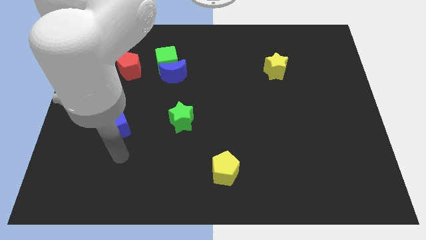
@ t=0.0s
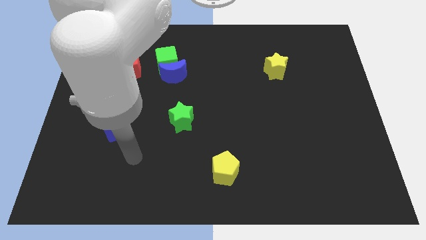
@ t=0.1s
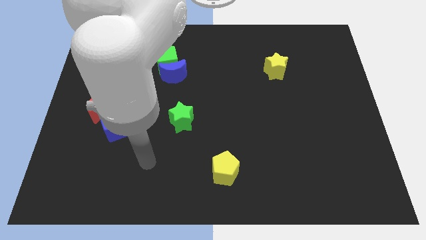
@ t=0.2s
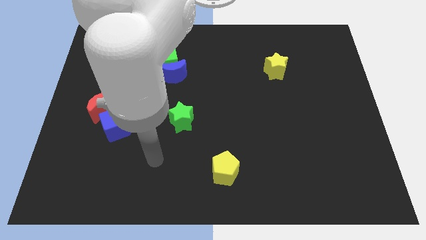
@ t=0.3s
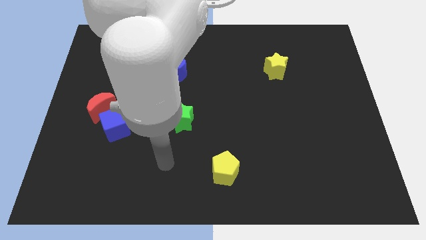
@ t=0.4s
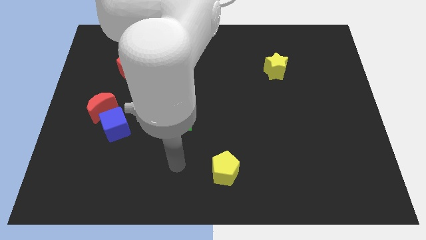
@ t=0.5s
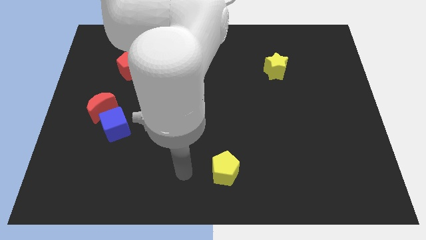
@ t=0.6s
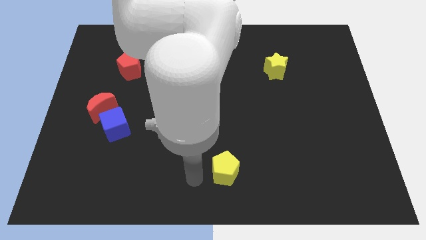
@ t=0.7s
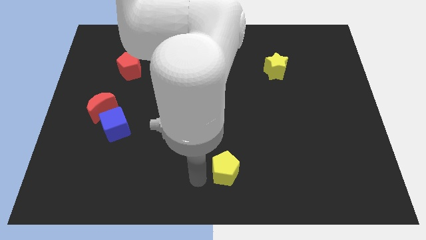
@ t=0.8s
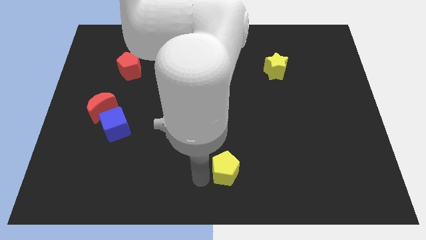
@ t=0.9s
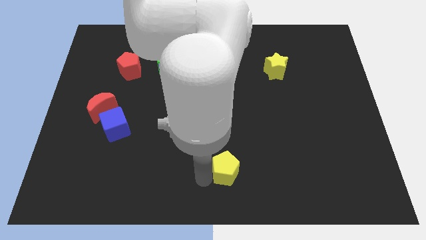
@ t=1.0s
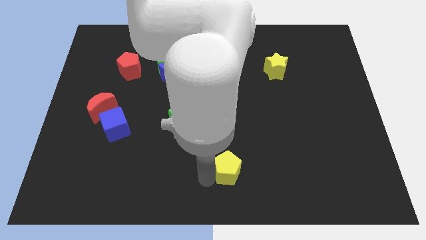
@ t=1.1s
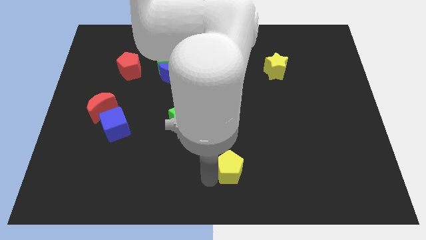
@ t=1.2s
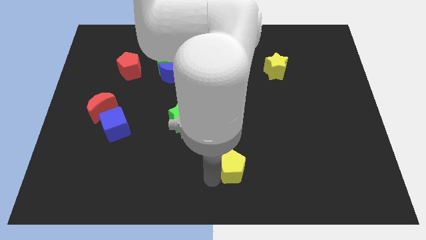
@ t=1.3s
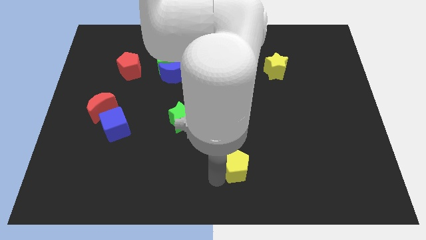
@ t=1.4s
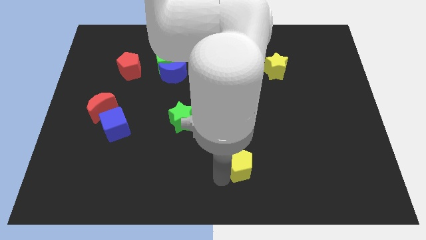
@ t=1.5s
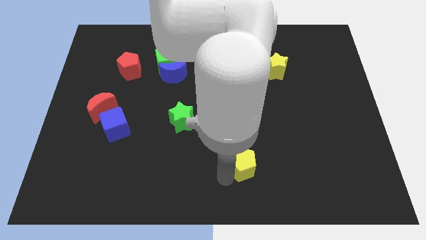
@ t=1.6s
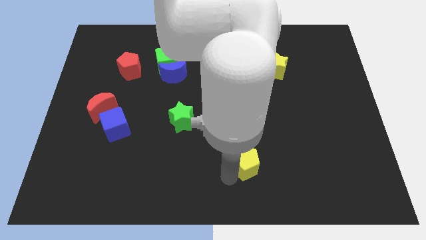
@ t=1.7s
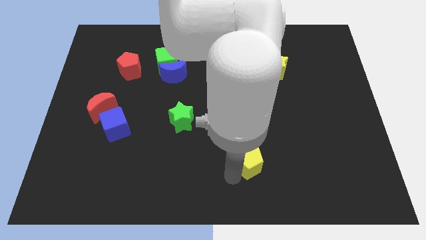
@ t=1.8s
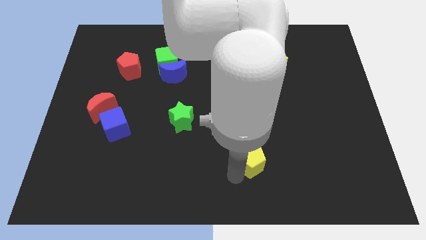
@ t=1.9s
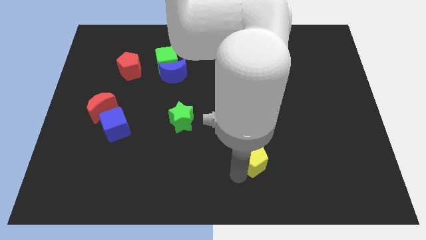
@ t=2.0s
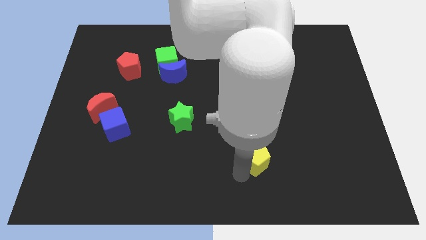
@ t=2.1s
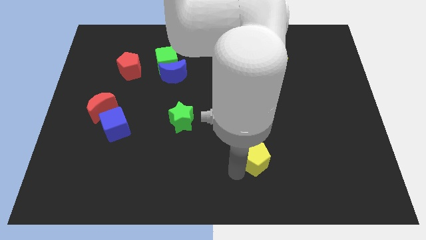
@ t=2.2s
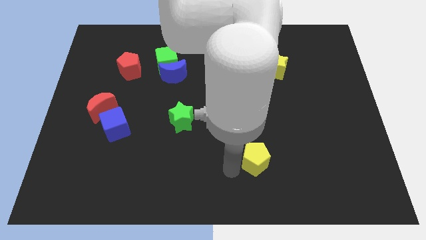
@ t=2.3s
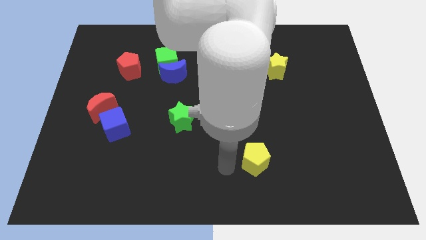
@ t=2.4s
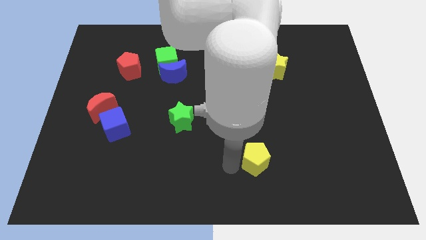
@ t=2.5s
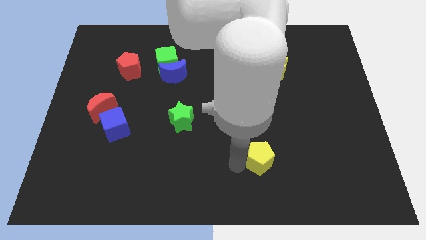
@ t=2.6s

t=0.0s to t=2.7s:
move the yellow pentagon right a little bit

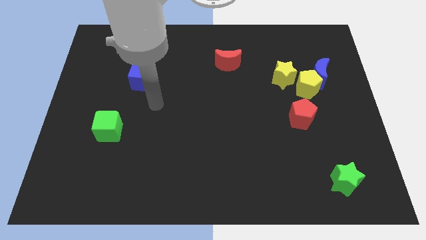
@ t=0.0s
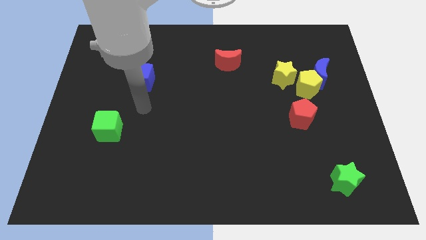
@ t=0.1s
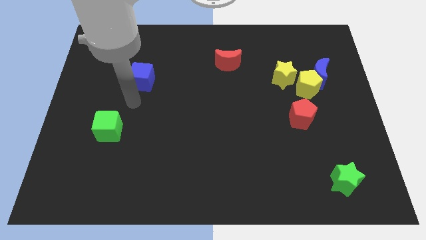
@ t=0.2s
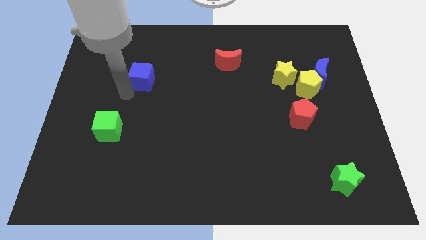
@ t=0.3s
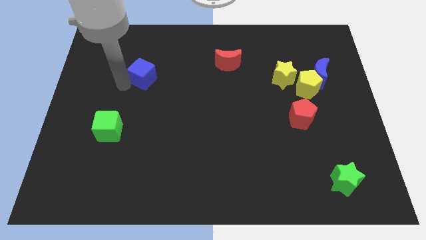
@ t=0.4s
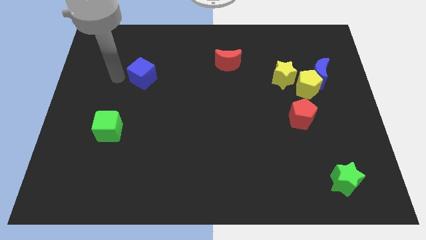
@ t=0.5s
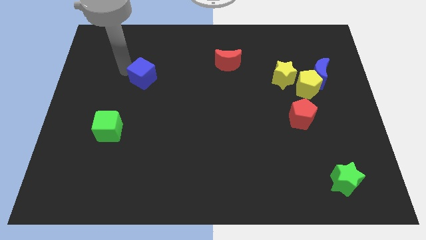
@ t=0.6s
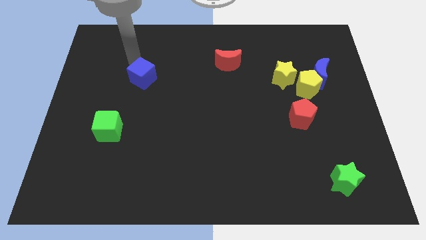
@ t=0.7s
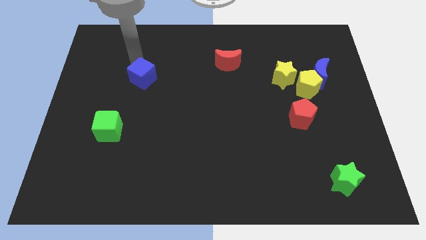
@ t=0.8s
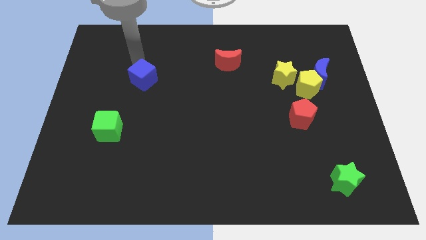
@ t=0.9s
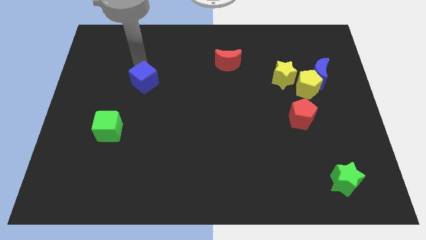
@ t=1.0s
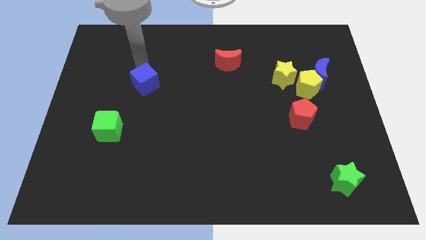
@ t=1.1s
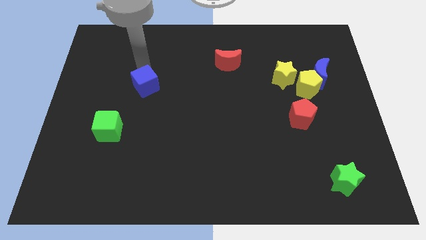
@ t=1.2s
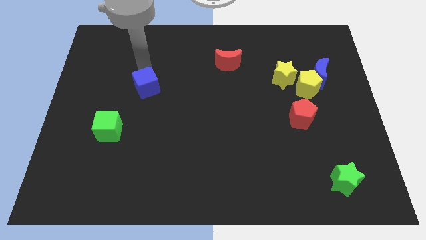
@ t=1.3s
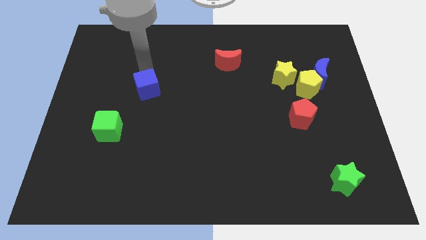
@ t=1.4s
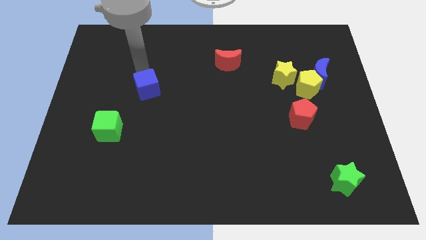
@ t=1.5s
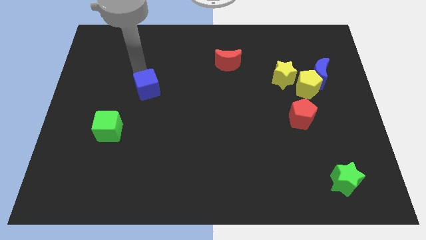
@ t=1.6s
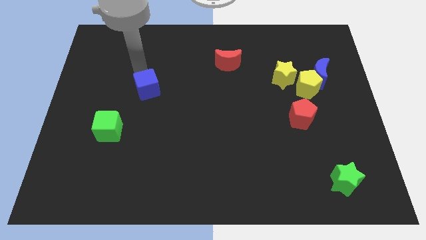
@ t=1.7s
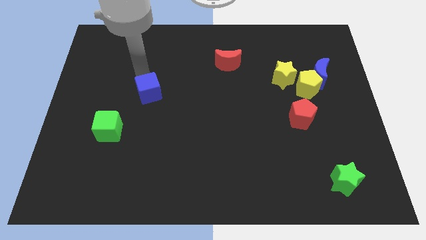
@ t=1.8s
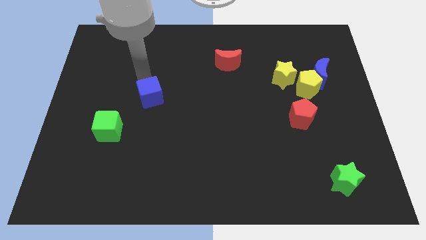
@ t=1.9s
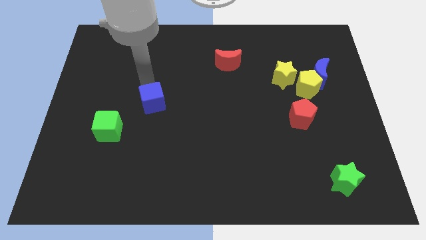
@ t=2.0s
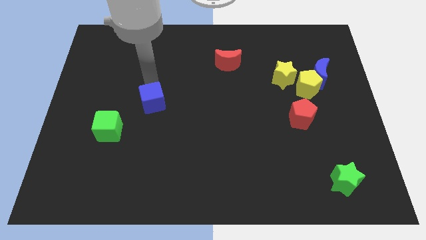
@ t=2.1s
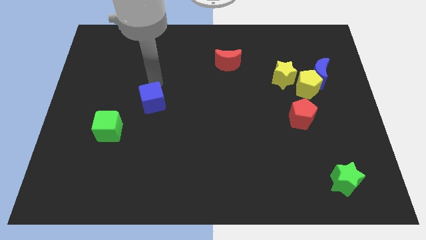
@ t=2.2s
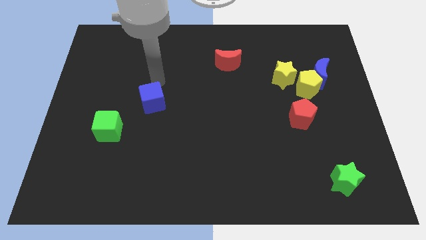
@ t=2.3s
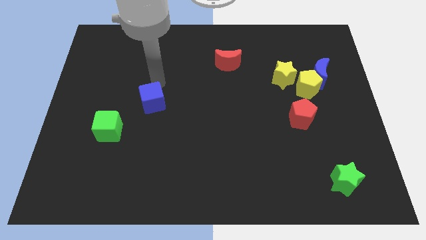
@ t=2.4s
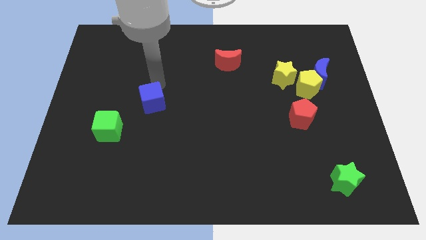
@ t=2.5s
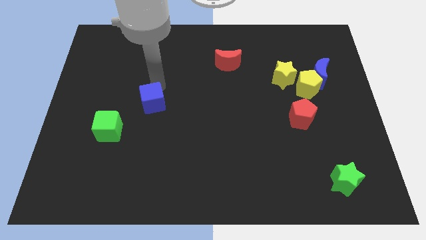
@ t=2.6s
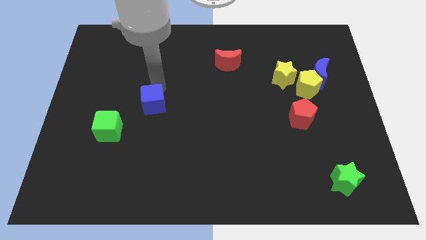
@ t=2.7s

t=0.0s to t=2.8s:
move the blue cube a little bit down

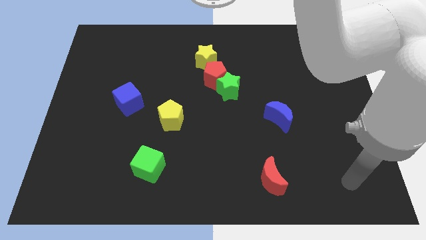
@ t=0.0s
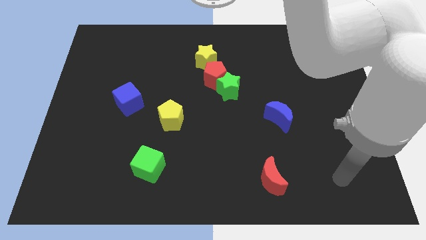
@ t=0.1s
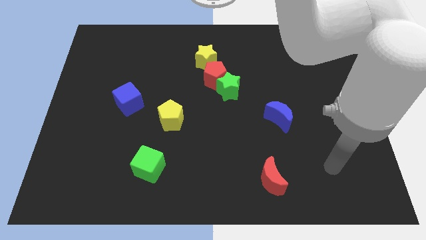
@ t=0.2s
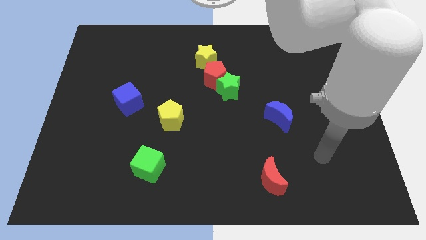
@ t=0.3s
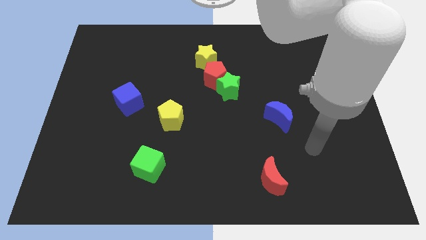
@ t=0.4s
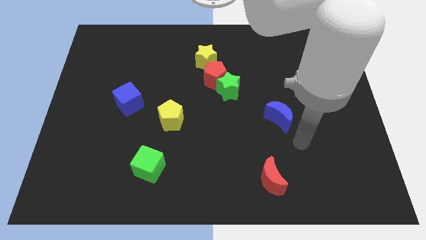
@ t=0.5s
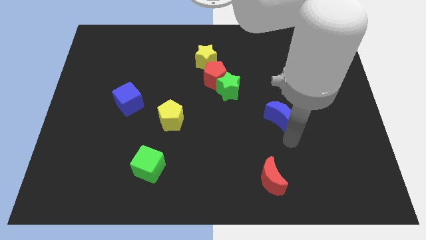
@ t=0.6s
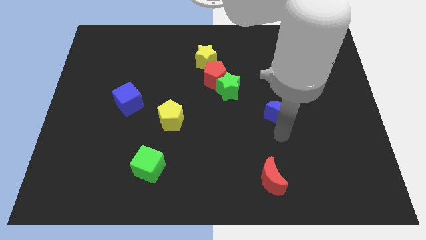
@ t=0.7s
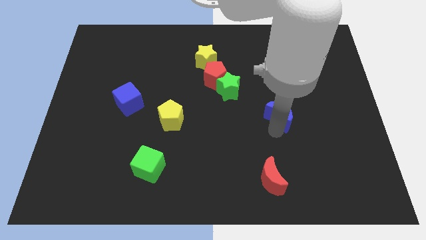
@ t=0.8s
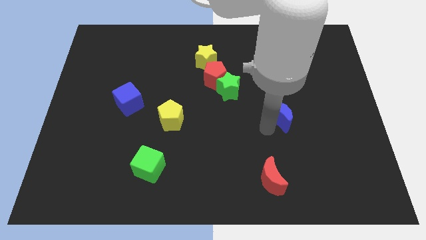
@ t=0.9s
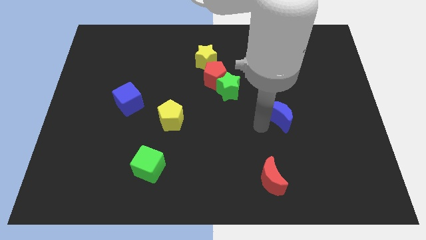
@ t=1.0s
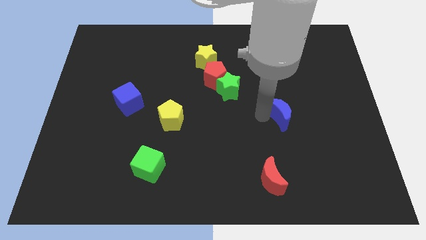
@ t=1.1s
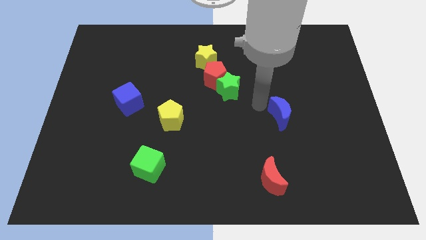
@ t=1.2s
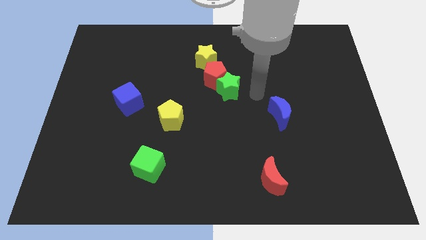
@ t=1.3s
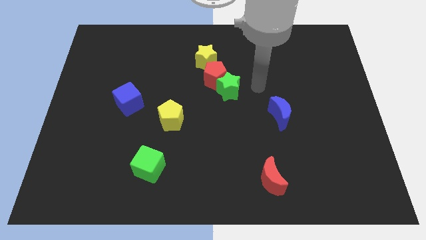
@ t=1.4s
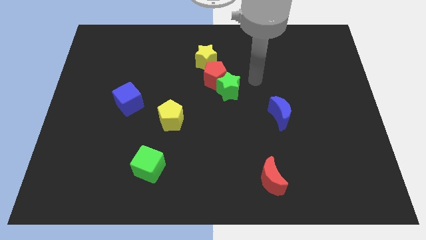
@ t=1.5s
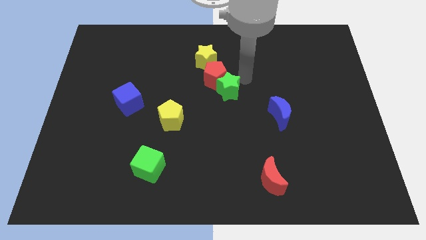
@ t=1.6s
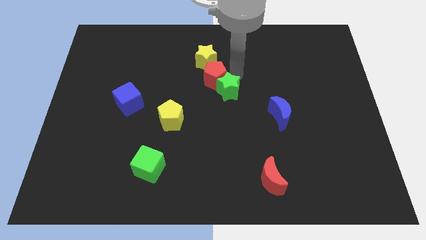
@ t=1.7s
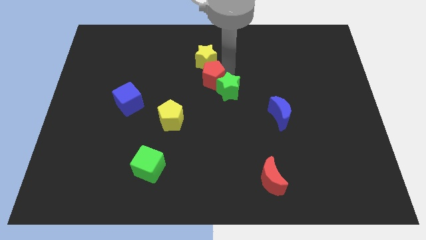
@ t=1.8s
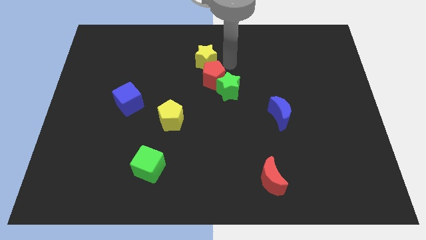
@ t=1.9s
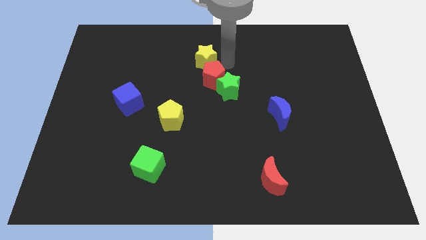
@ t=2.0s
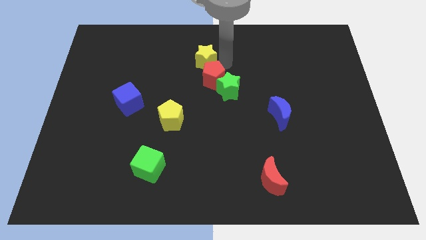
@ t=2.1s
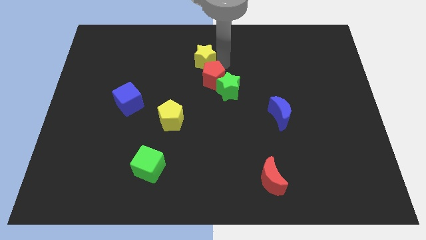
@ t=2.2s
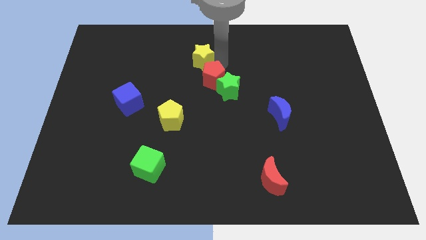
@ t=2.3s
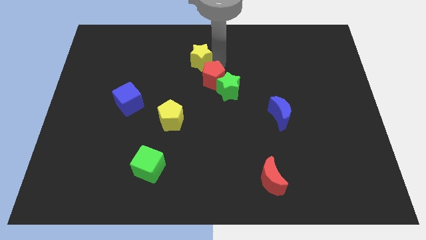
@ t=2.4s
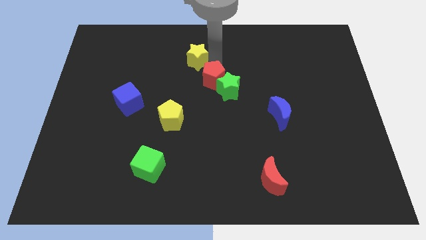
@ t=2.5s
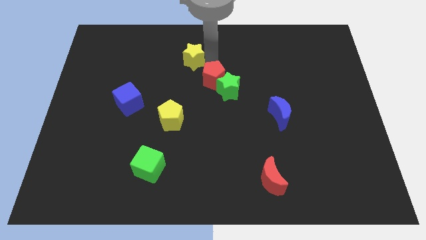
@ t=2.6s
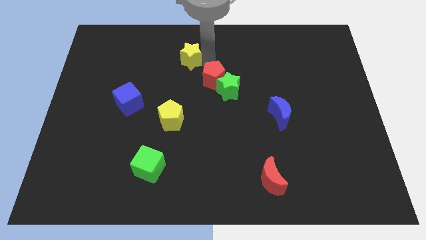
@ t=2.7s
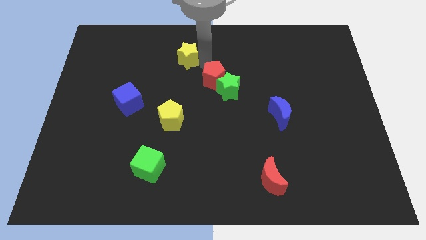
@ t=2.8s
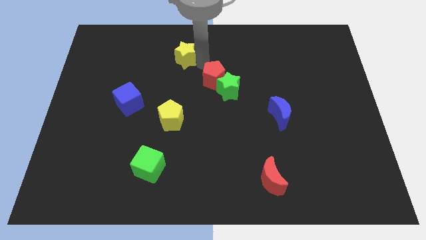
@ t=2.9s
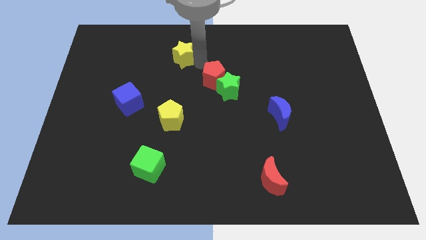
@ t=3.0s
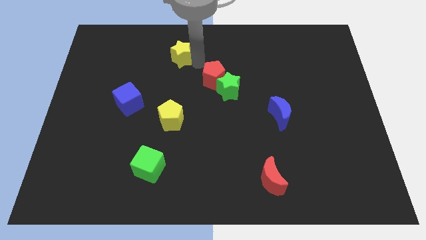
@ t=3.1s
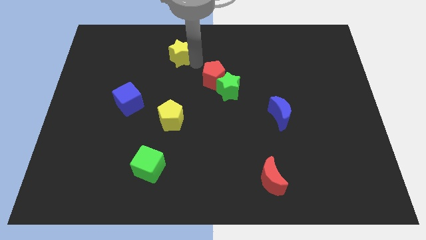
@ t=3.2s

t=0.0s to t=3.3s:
push the yellow star to the left a bit
